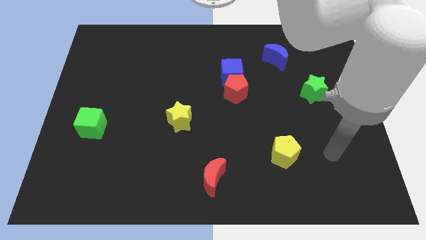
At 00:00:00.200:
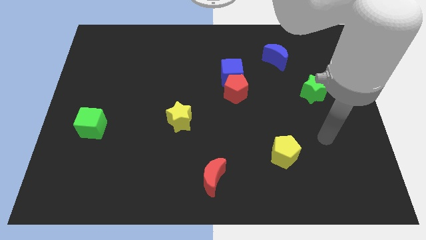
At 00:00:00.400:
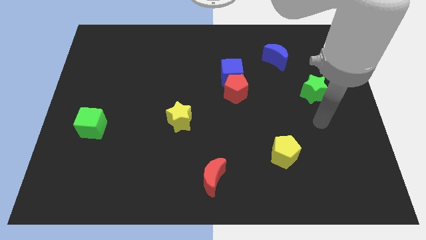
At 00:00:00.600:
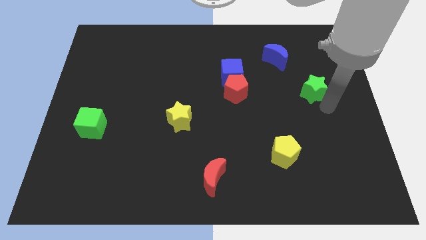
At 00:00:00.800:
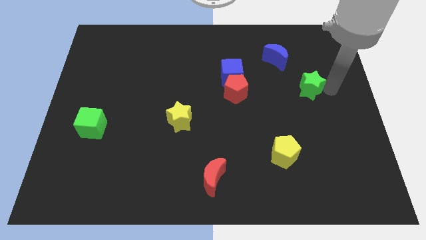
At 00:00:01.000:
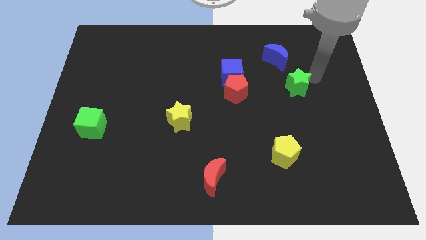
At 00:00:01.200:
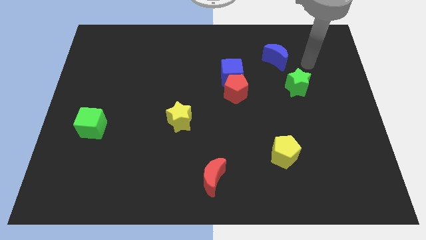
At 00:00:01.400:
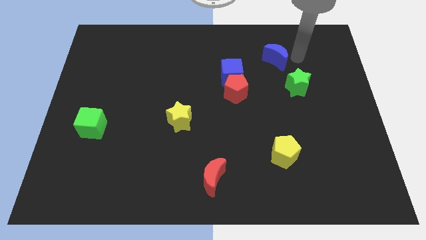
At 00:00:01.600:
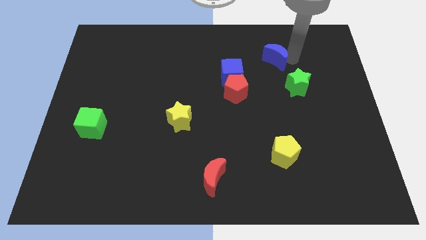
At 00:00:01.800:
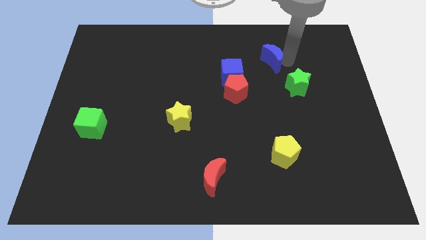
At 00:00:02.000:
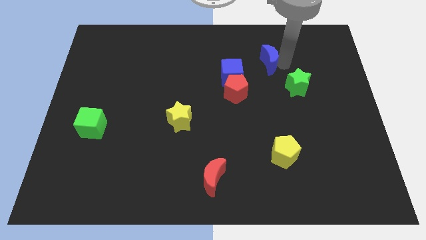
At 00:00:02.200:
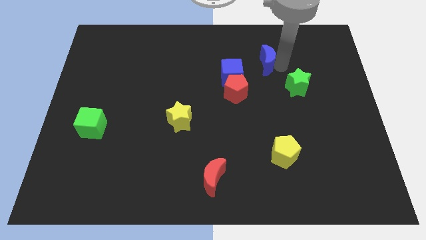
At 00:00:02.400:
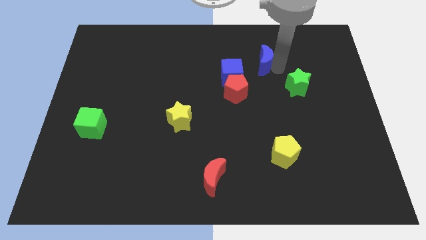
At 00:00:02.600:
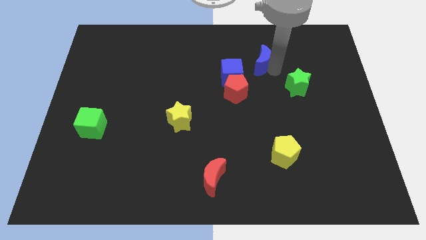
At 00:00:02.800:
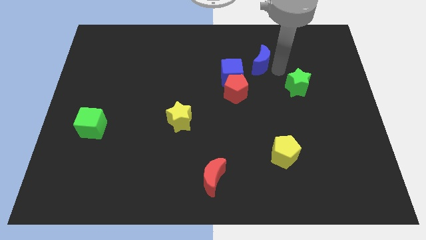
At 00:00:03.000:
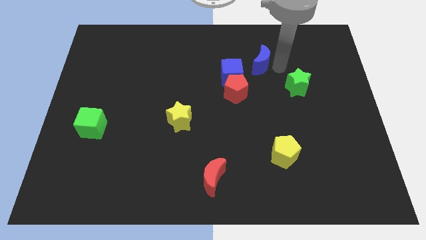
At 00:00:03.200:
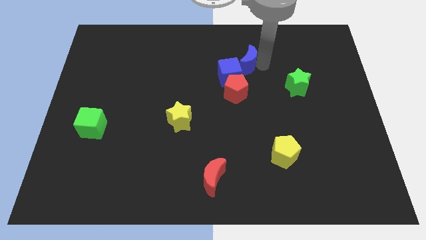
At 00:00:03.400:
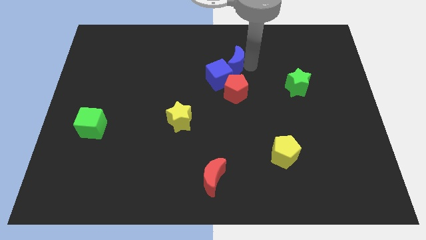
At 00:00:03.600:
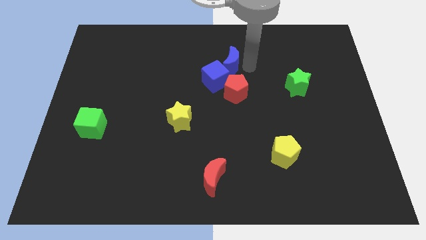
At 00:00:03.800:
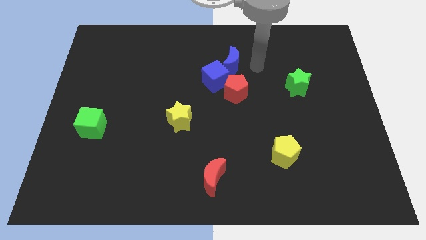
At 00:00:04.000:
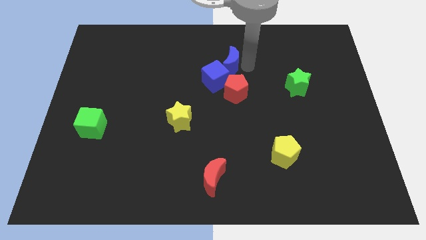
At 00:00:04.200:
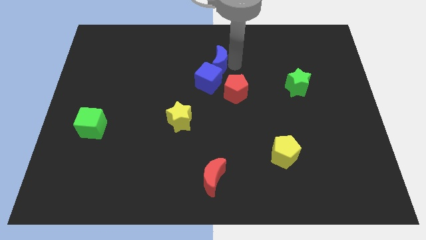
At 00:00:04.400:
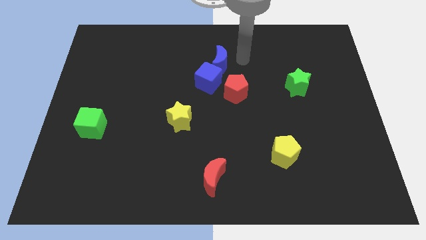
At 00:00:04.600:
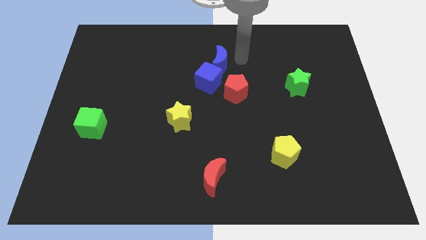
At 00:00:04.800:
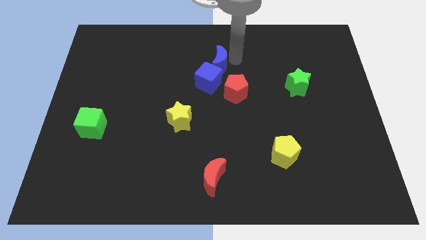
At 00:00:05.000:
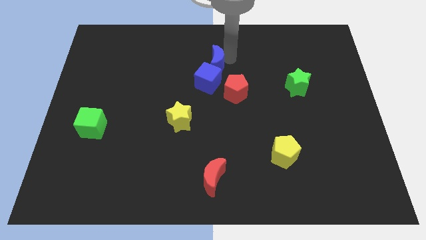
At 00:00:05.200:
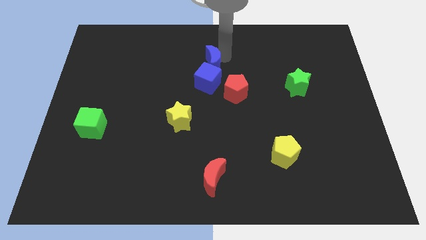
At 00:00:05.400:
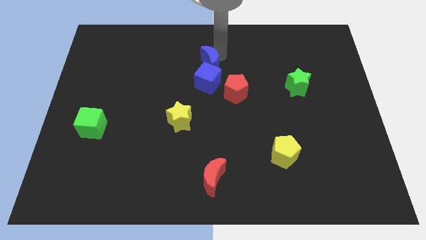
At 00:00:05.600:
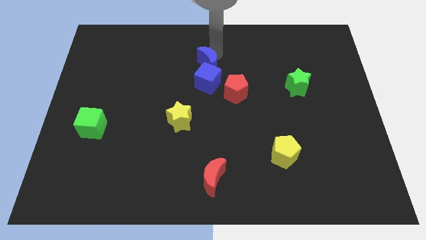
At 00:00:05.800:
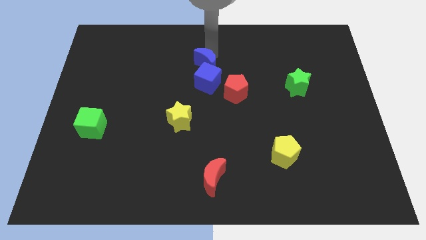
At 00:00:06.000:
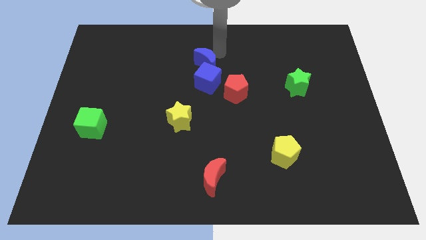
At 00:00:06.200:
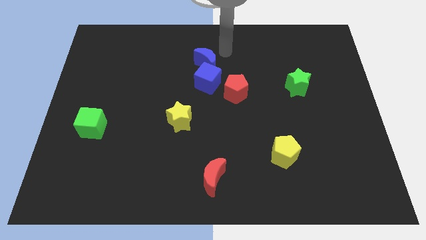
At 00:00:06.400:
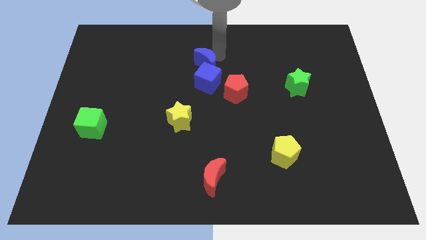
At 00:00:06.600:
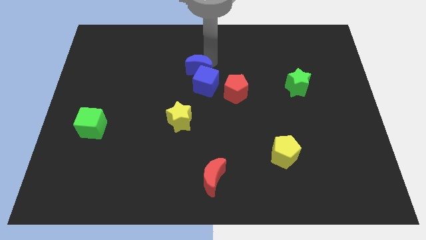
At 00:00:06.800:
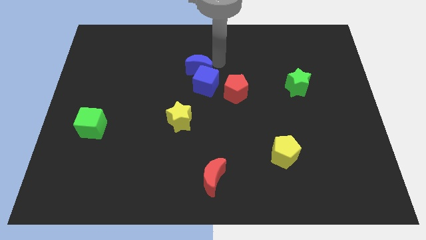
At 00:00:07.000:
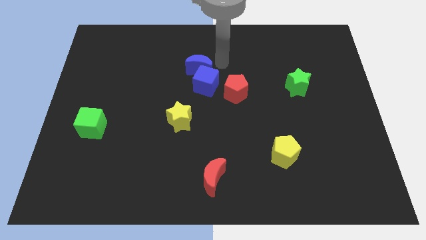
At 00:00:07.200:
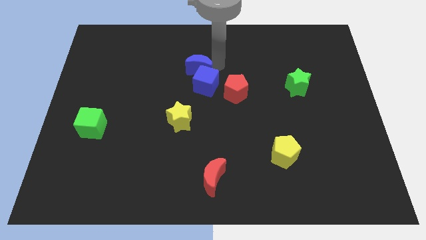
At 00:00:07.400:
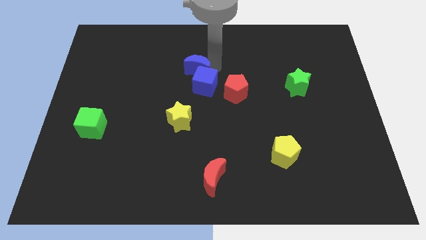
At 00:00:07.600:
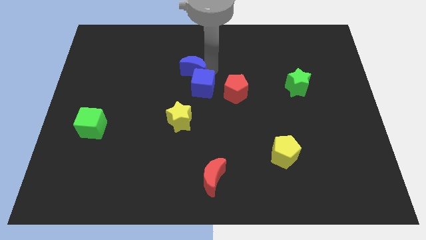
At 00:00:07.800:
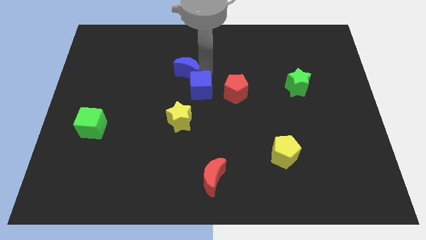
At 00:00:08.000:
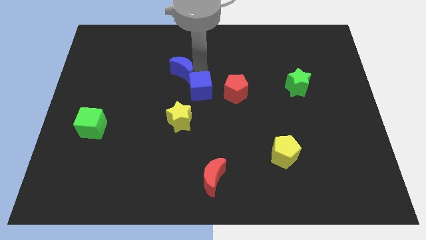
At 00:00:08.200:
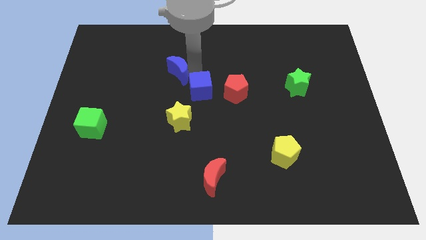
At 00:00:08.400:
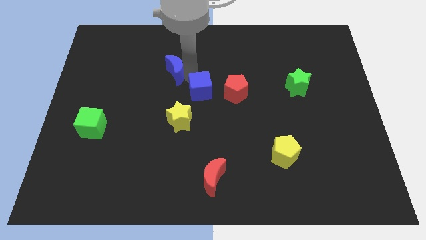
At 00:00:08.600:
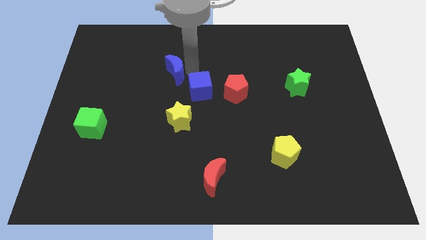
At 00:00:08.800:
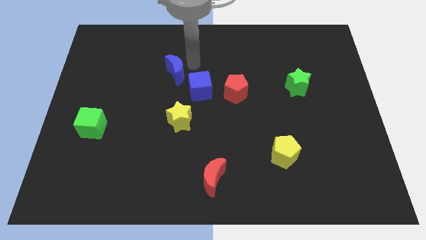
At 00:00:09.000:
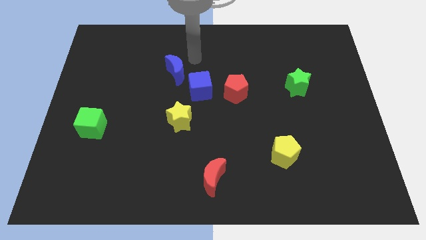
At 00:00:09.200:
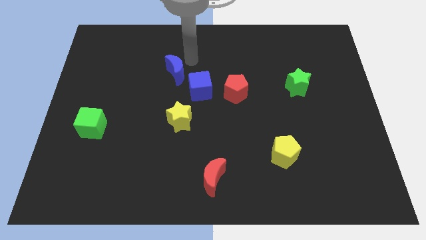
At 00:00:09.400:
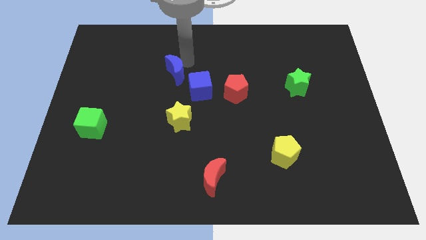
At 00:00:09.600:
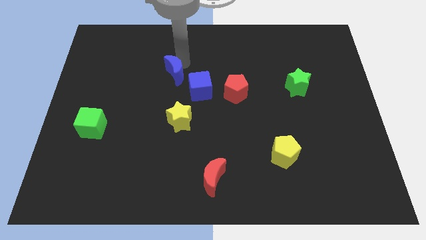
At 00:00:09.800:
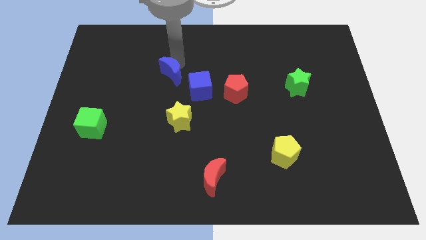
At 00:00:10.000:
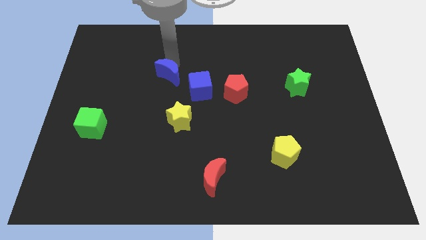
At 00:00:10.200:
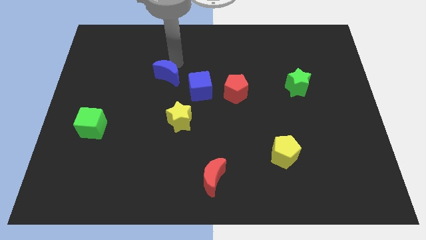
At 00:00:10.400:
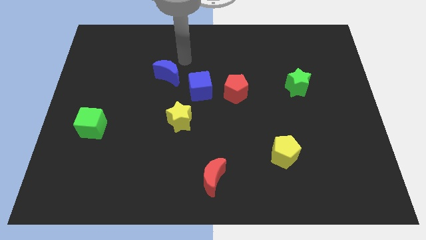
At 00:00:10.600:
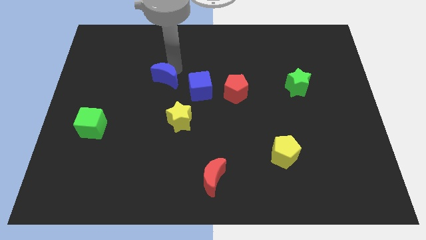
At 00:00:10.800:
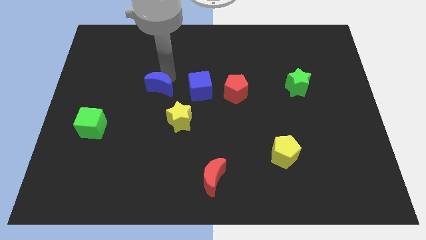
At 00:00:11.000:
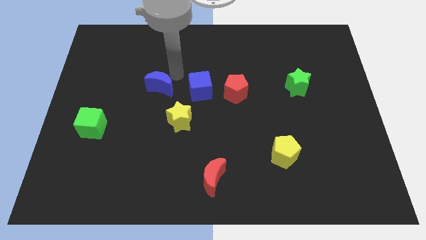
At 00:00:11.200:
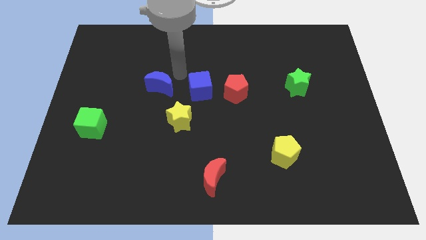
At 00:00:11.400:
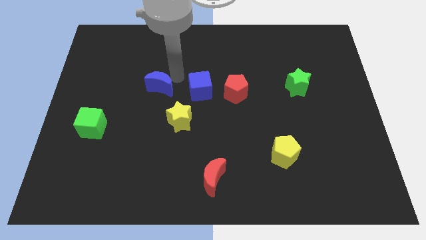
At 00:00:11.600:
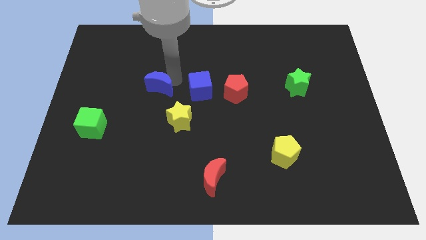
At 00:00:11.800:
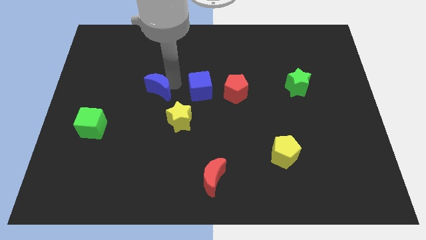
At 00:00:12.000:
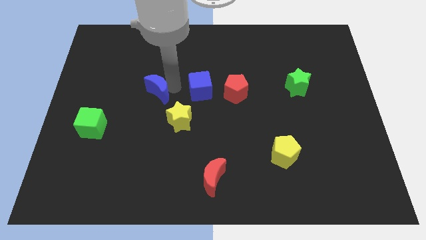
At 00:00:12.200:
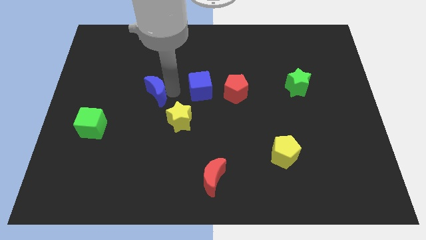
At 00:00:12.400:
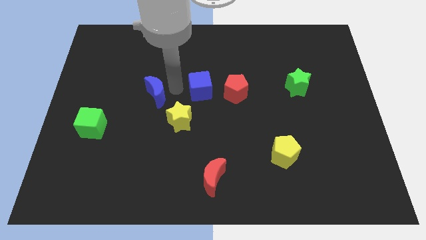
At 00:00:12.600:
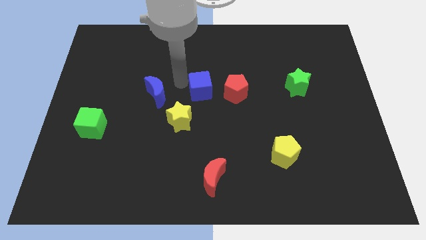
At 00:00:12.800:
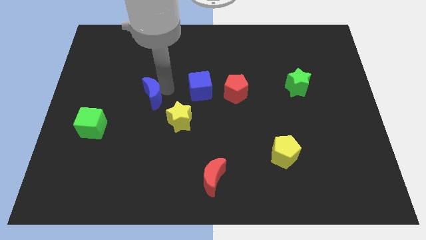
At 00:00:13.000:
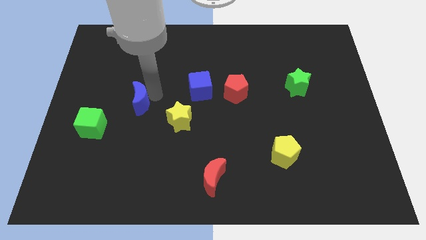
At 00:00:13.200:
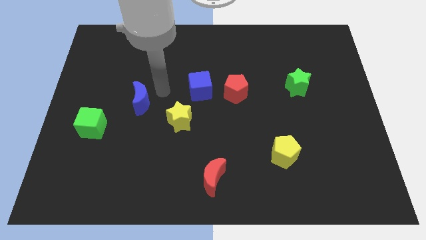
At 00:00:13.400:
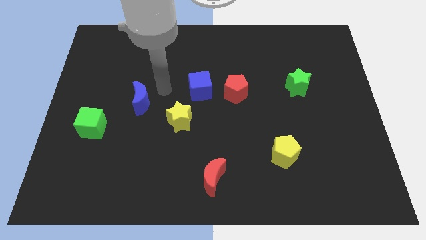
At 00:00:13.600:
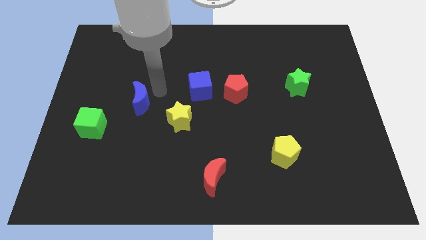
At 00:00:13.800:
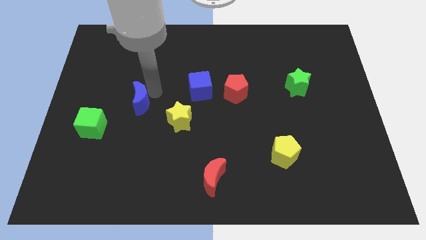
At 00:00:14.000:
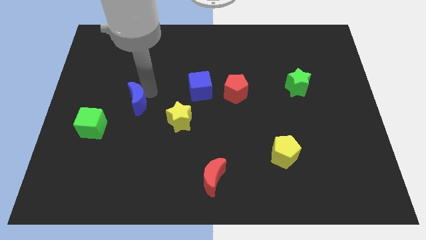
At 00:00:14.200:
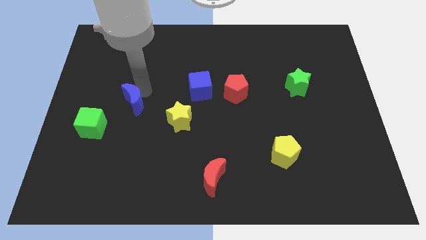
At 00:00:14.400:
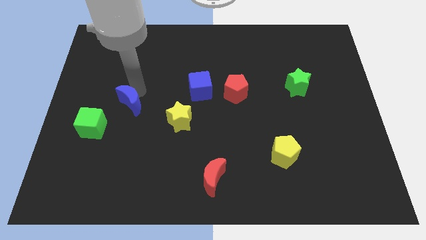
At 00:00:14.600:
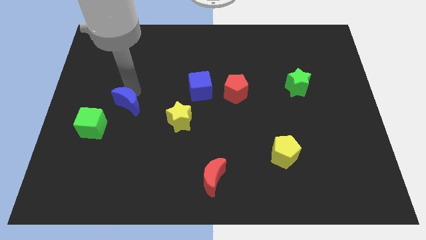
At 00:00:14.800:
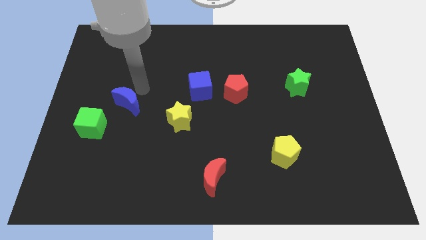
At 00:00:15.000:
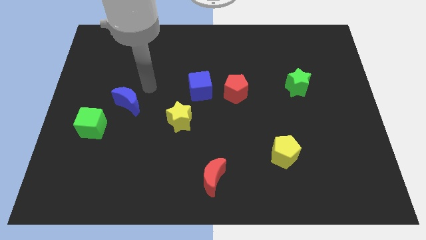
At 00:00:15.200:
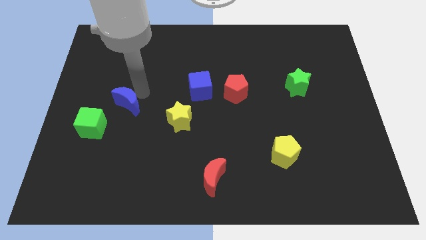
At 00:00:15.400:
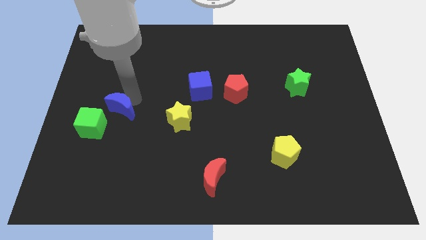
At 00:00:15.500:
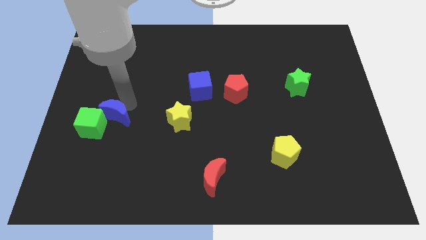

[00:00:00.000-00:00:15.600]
slide the blue moon towards the green cube
